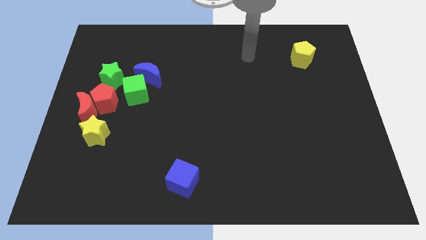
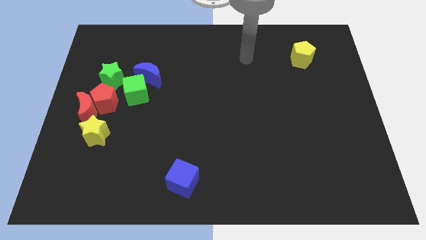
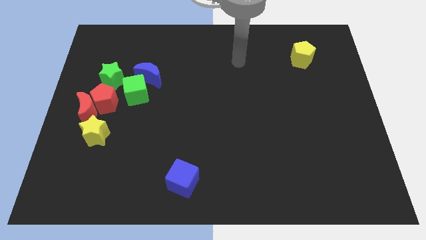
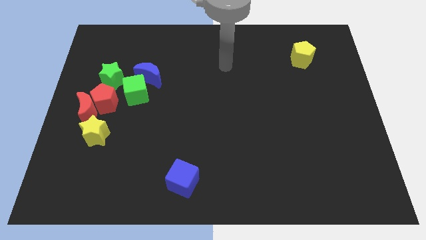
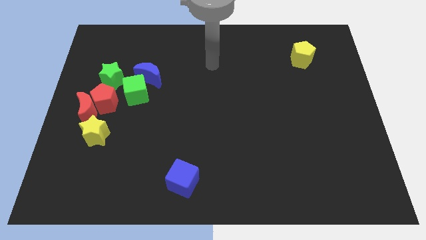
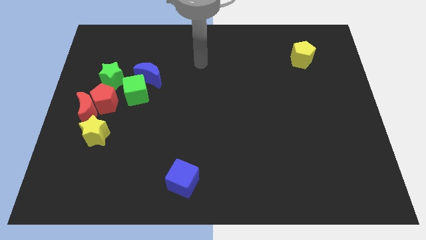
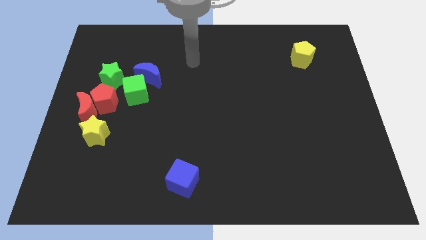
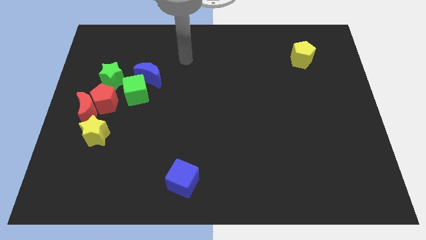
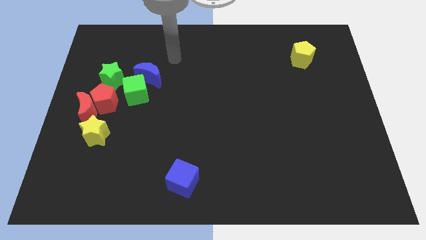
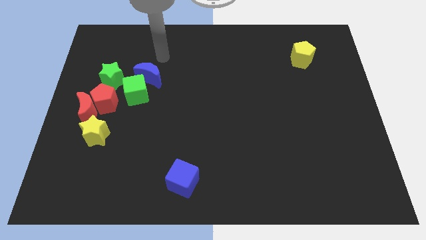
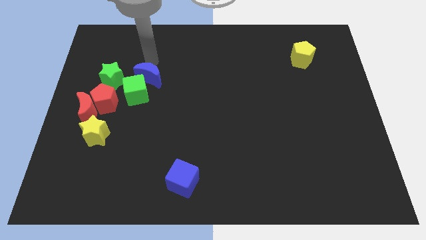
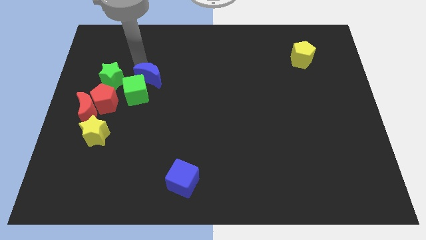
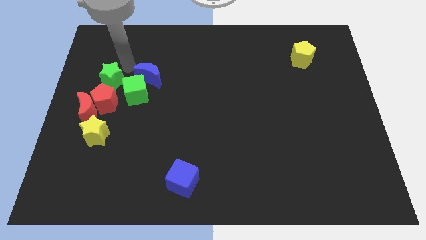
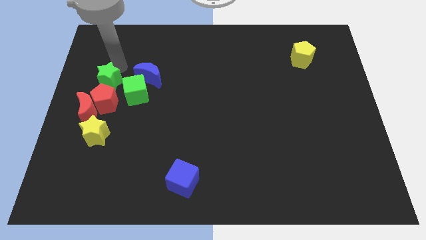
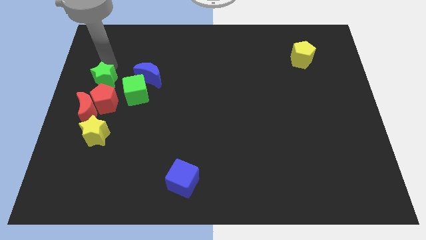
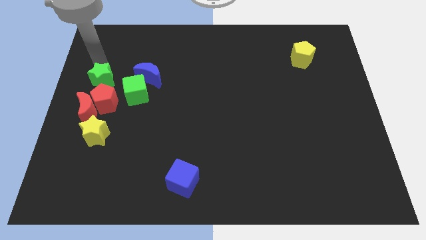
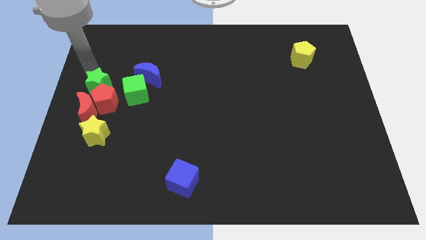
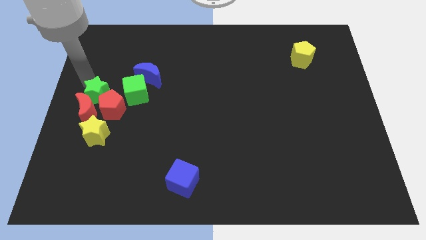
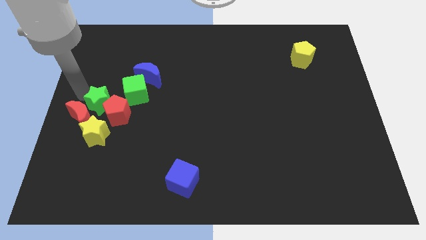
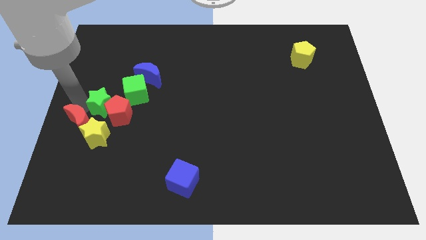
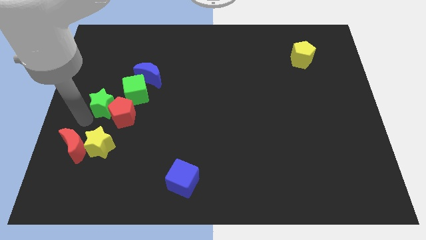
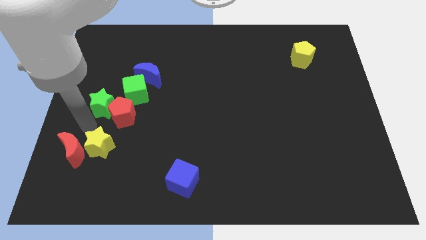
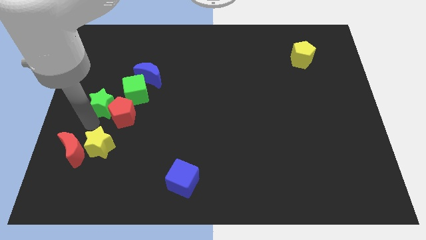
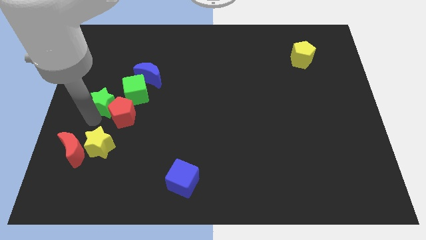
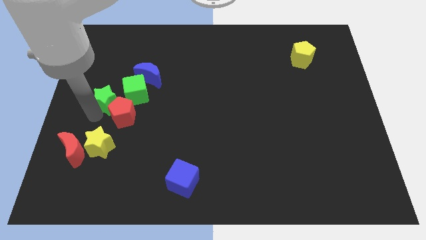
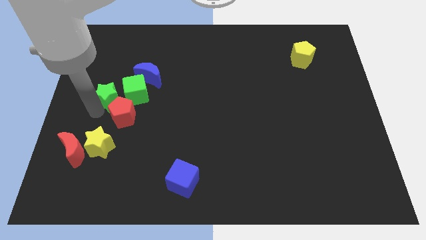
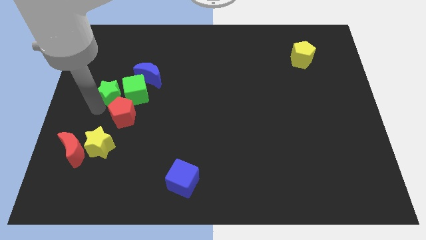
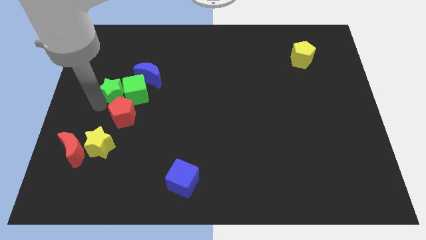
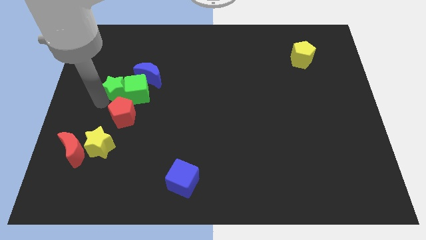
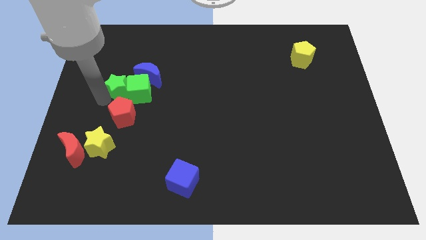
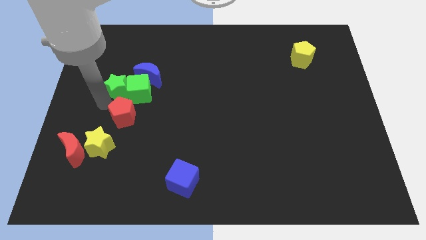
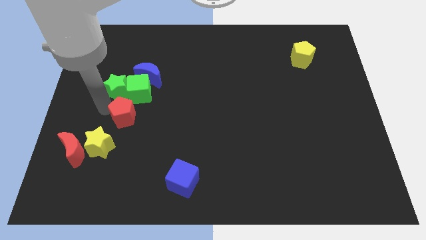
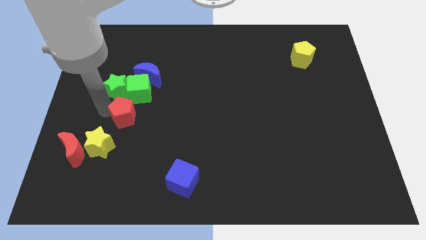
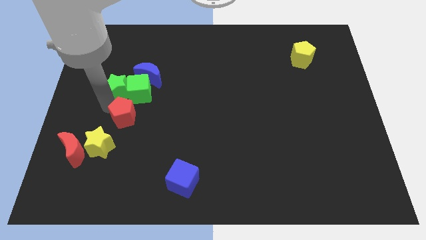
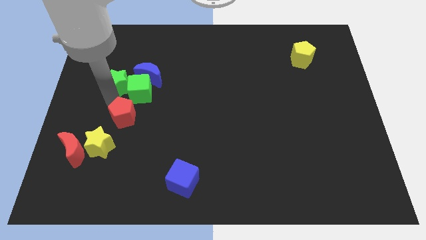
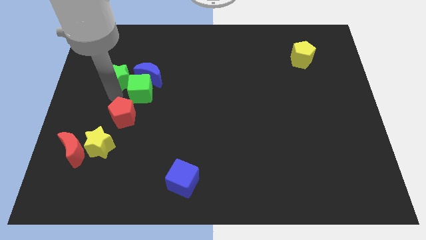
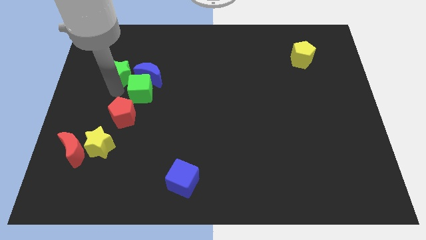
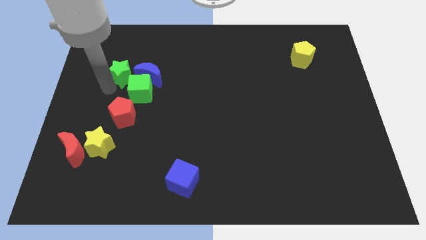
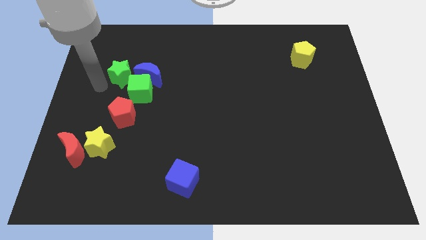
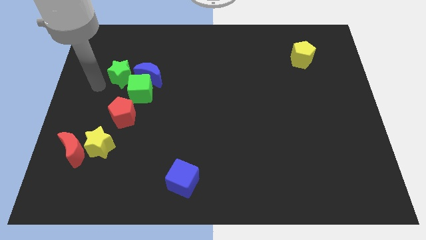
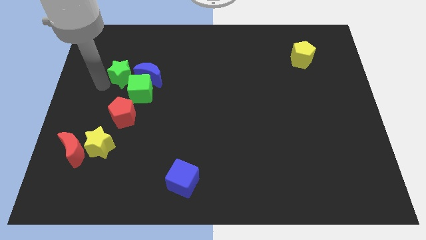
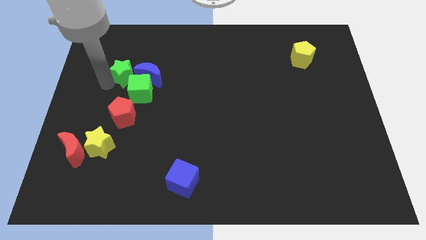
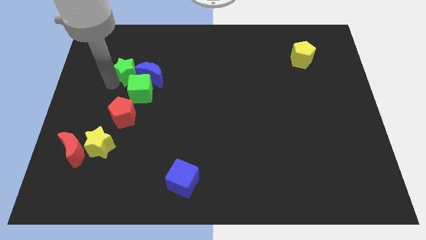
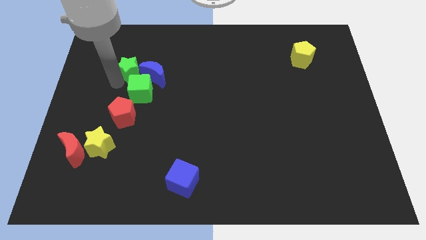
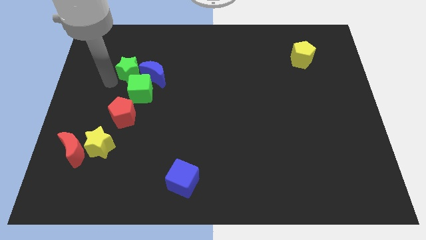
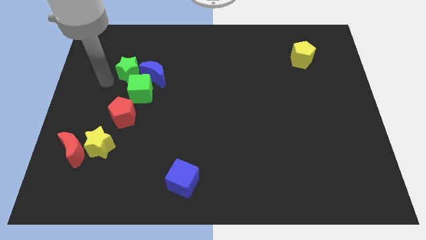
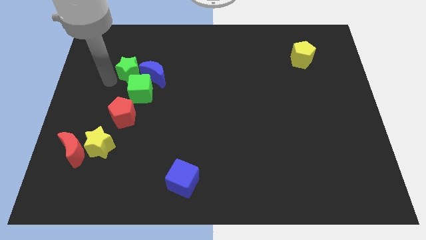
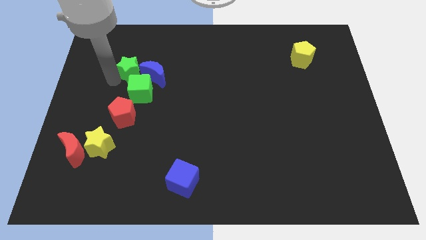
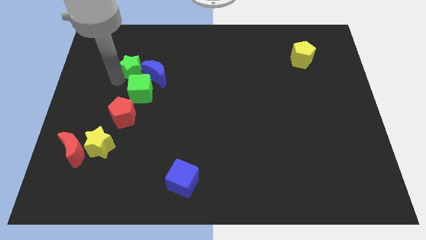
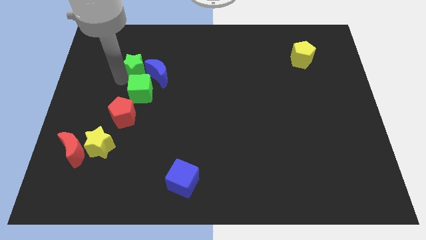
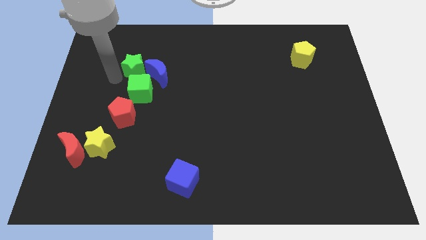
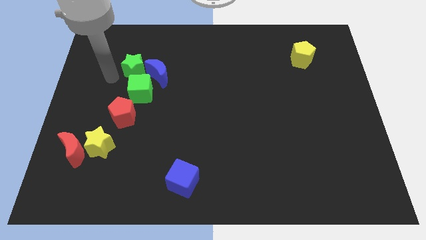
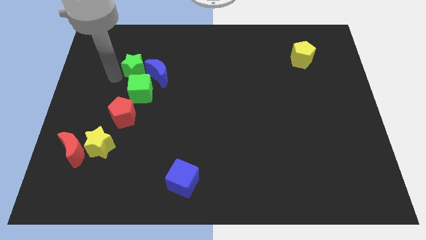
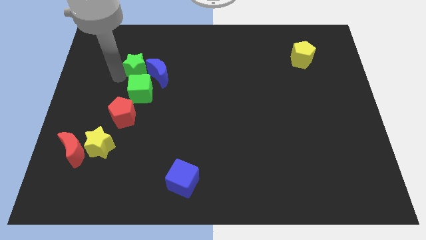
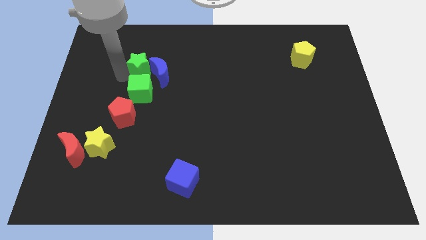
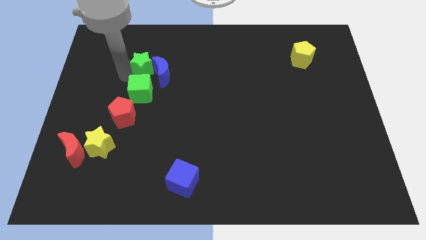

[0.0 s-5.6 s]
slide the green star to the right somewhat

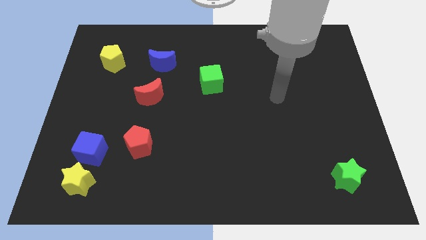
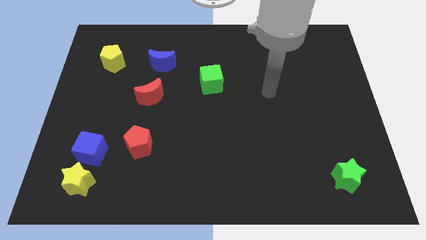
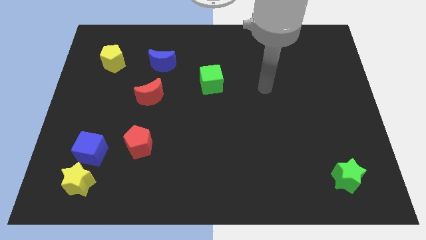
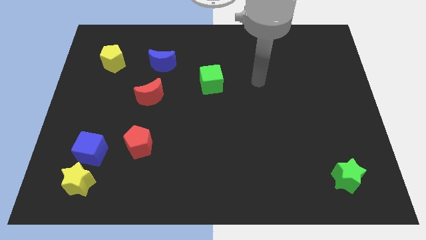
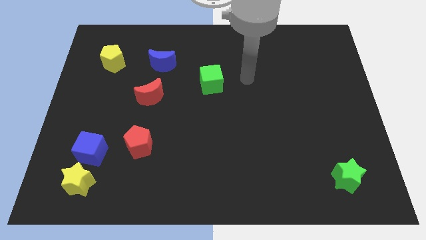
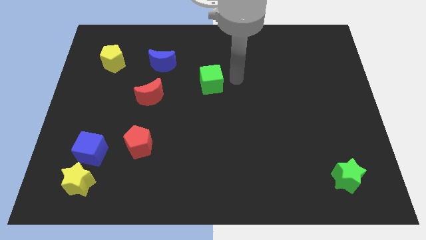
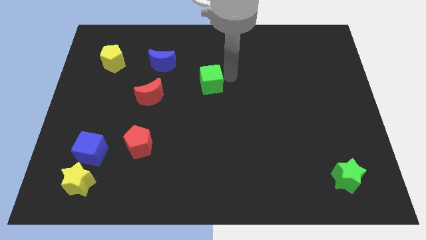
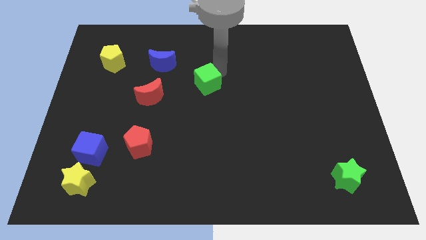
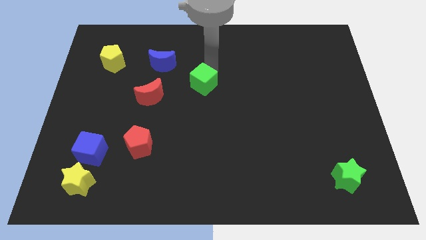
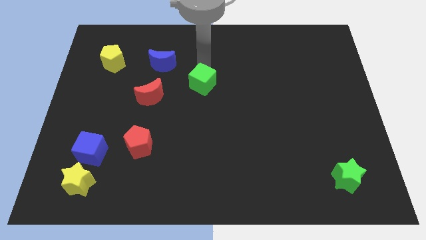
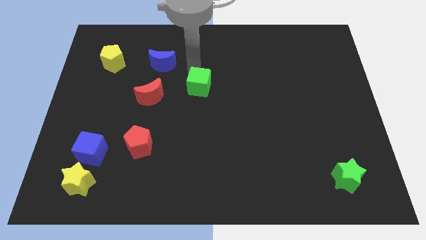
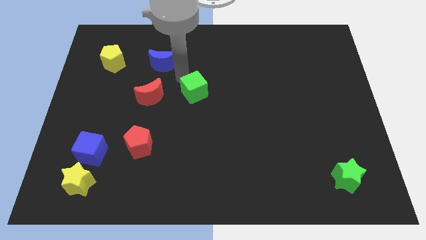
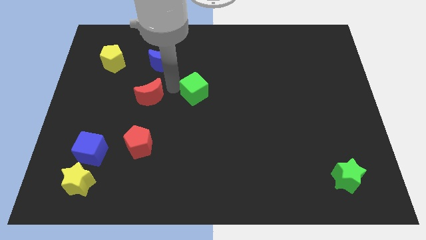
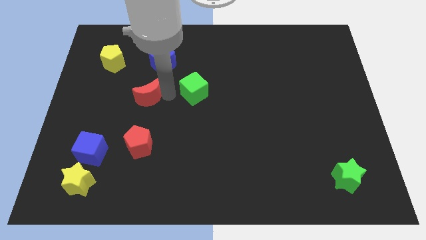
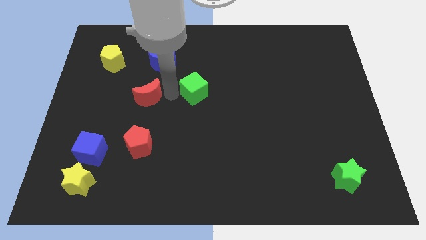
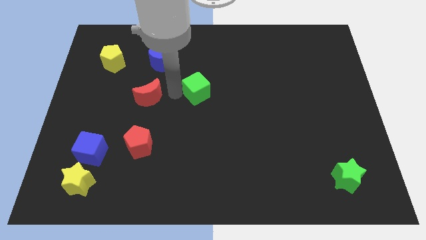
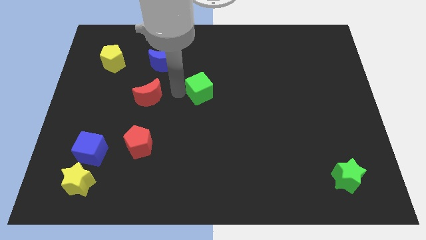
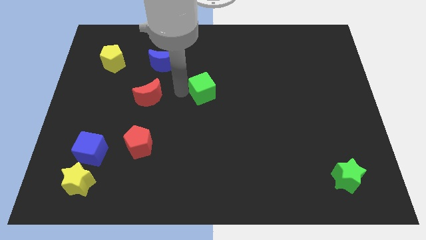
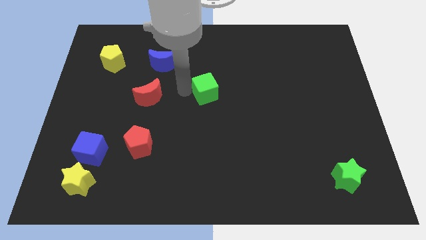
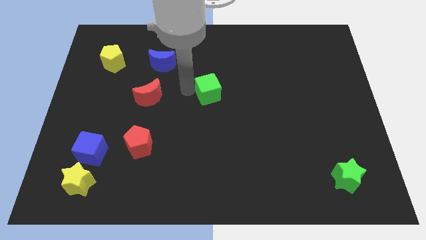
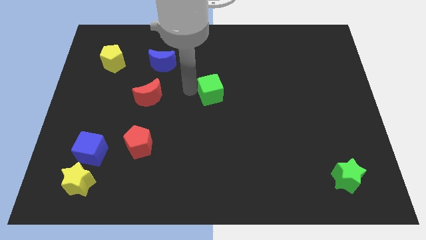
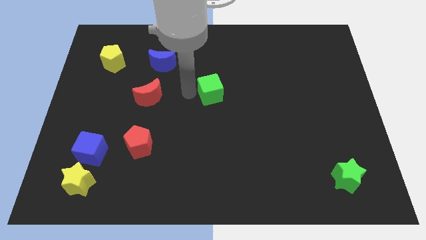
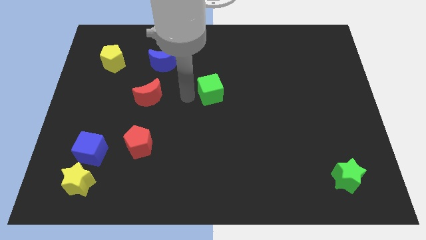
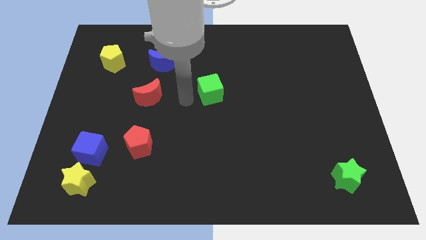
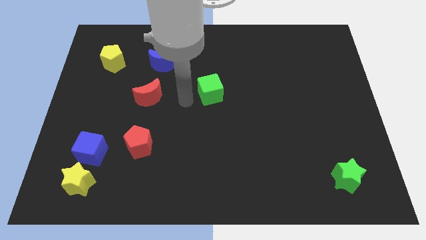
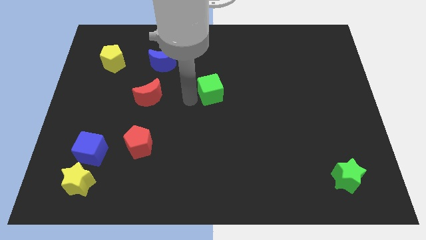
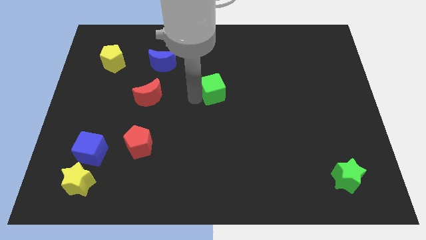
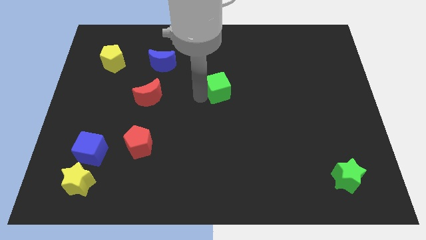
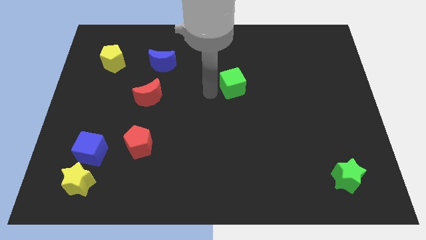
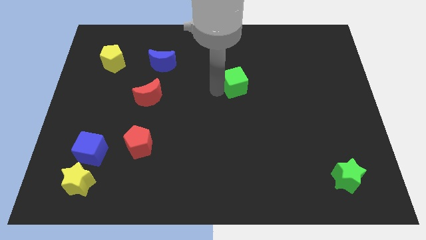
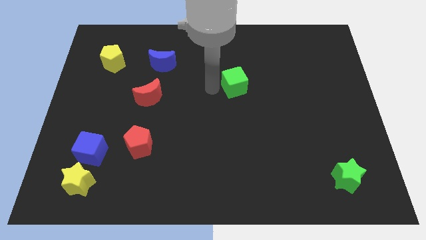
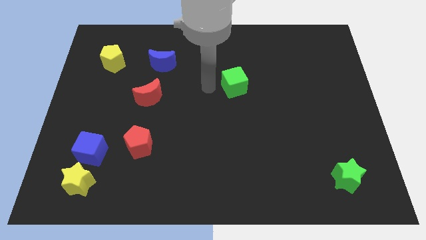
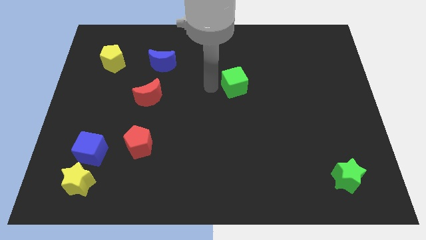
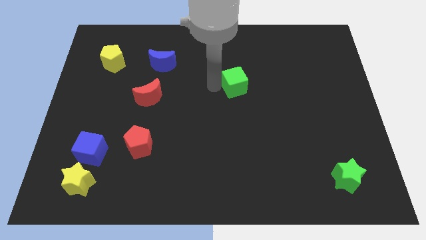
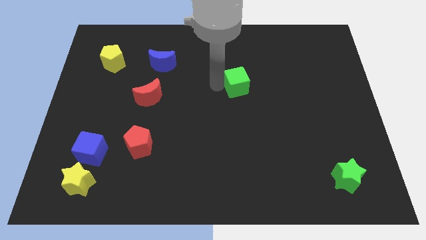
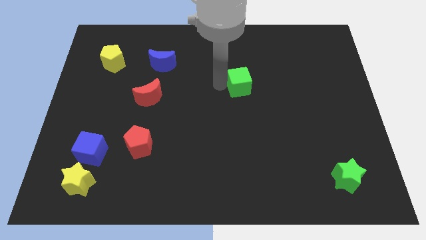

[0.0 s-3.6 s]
push the green cube right slightly
